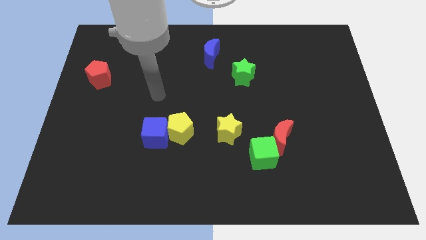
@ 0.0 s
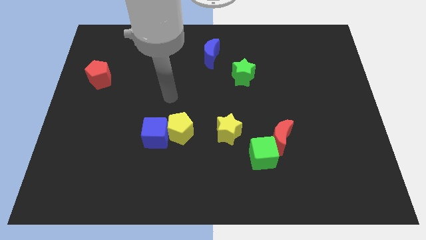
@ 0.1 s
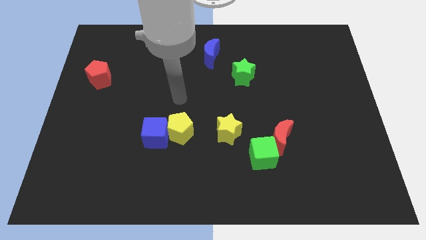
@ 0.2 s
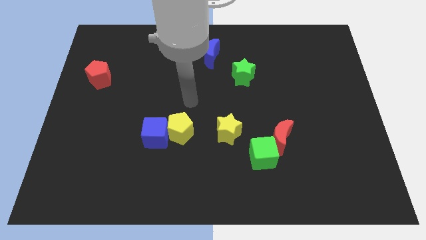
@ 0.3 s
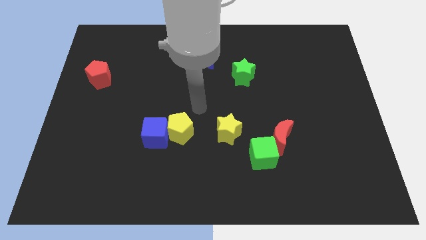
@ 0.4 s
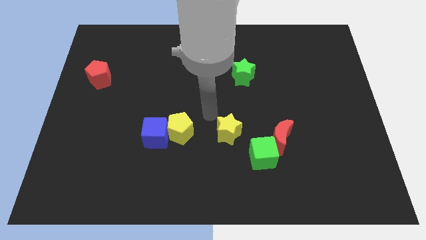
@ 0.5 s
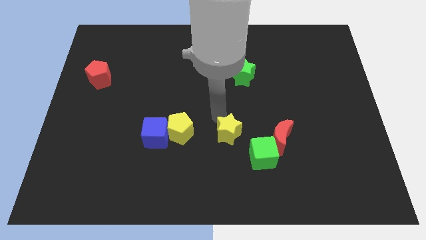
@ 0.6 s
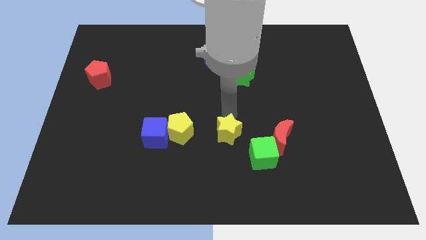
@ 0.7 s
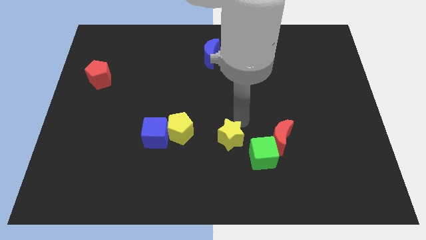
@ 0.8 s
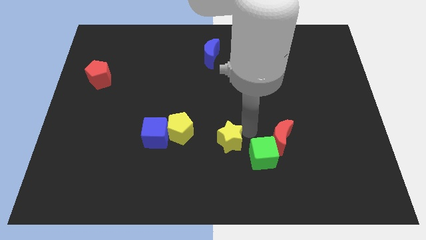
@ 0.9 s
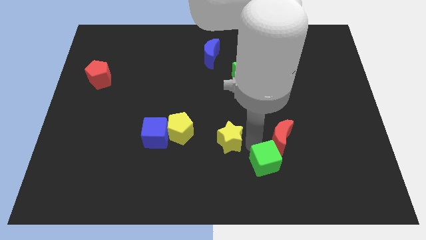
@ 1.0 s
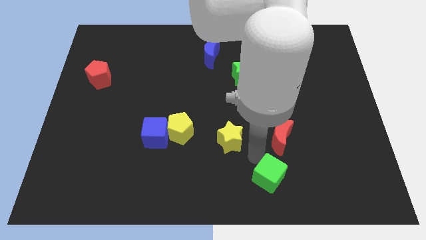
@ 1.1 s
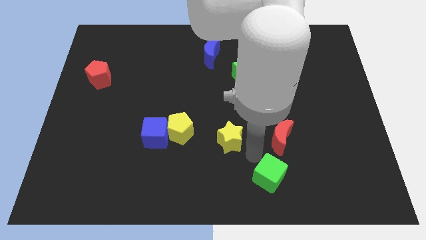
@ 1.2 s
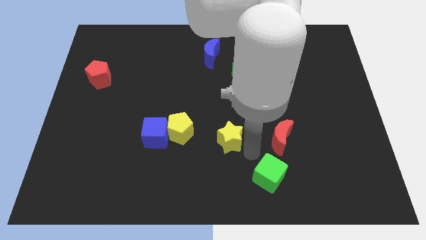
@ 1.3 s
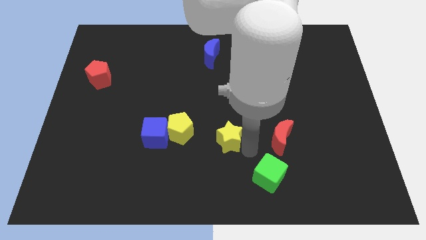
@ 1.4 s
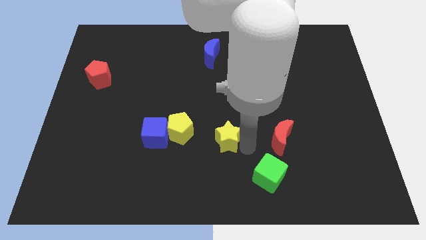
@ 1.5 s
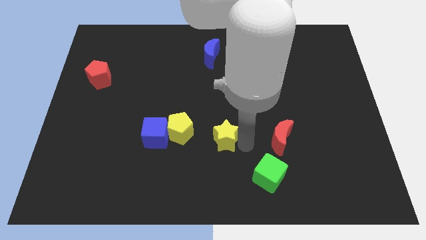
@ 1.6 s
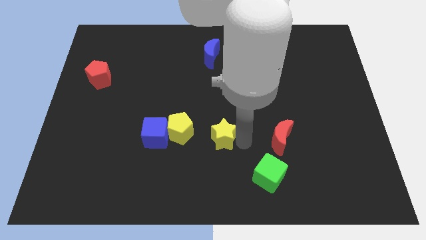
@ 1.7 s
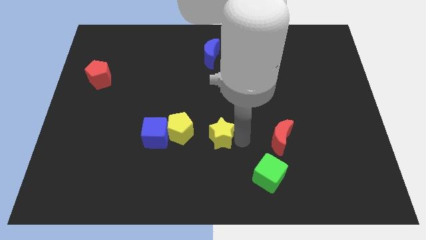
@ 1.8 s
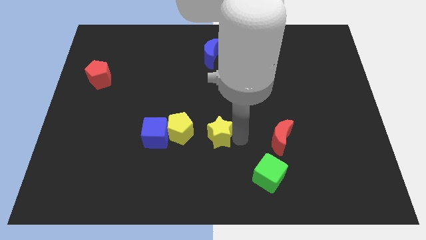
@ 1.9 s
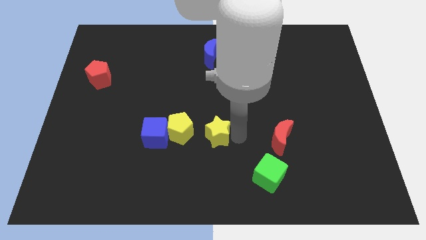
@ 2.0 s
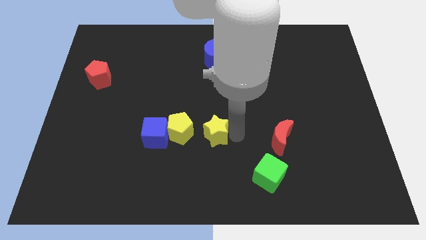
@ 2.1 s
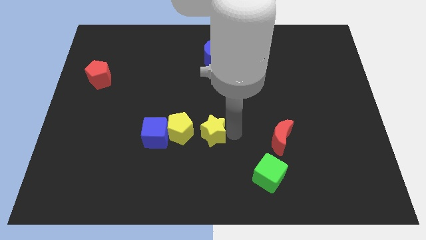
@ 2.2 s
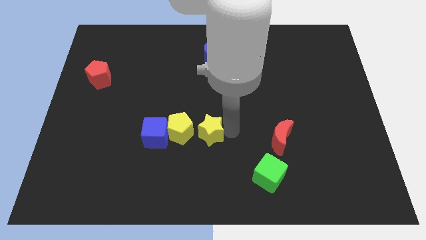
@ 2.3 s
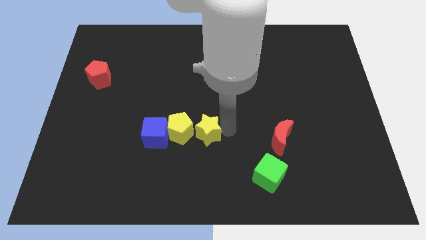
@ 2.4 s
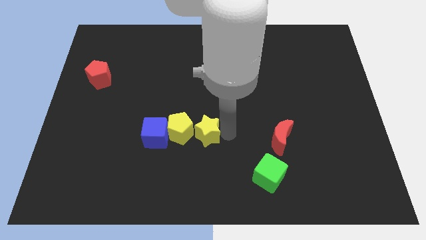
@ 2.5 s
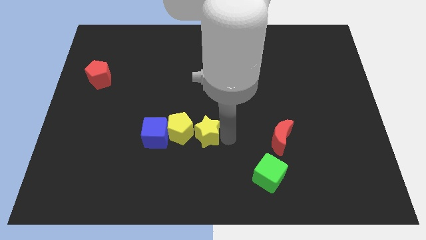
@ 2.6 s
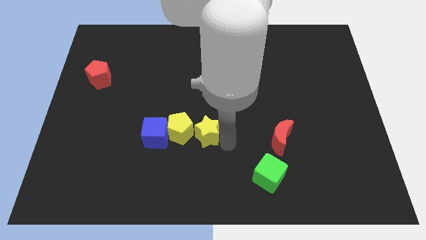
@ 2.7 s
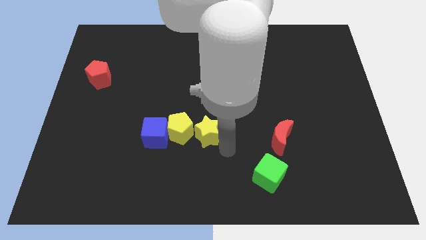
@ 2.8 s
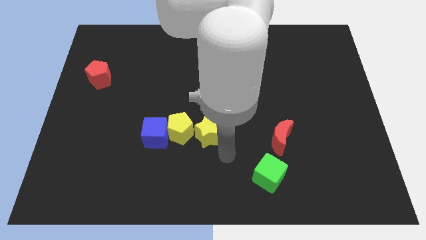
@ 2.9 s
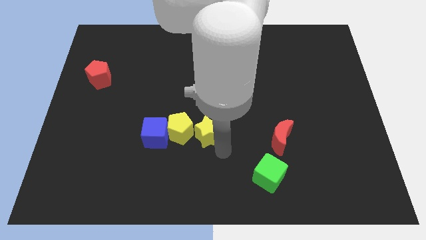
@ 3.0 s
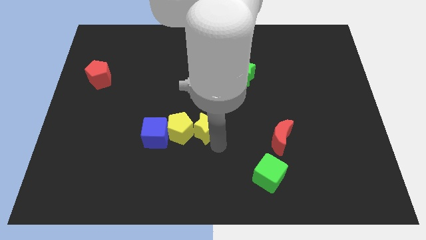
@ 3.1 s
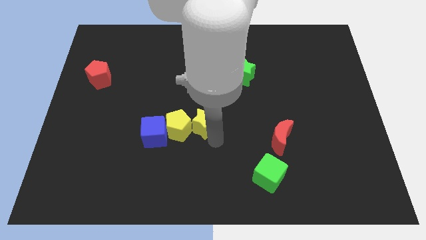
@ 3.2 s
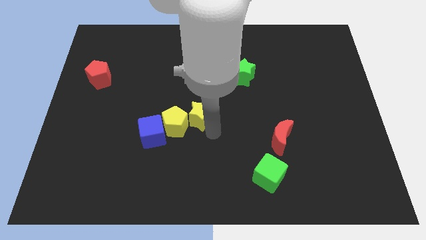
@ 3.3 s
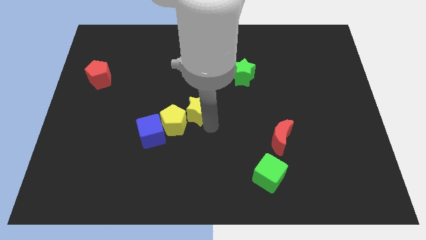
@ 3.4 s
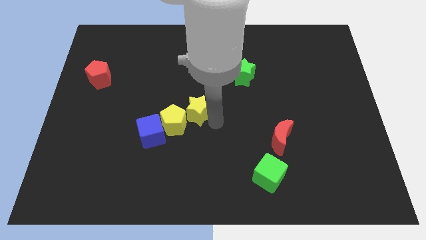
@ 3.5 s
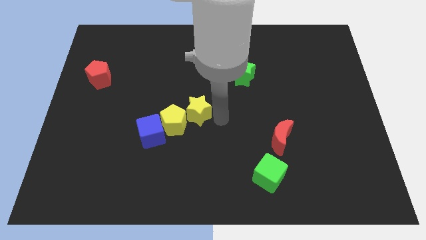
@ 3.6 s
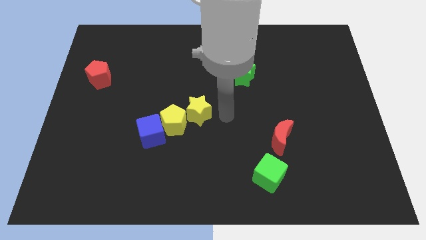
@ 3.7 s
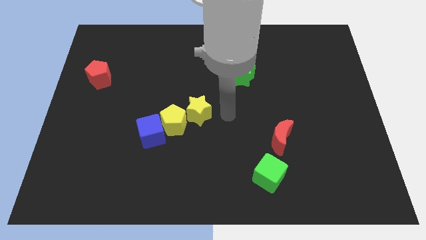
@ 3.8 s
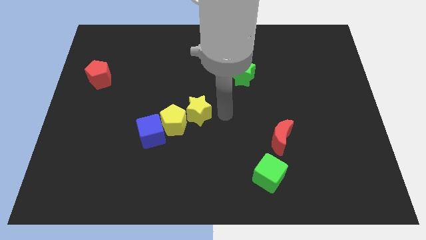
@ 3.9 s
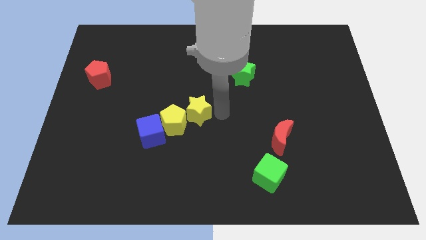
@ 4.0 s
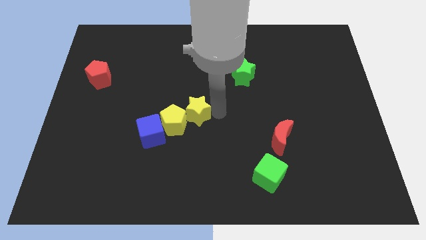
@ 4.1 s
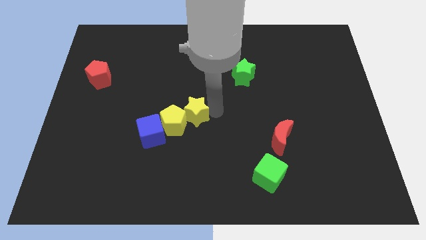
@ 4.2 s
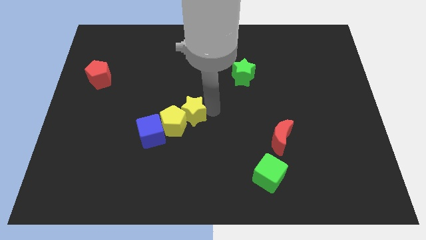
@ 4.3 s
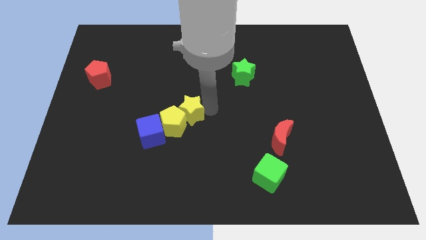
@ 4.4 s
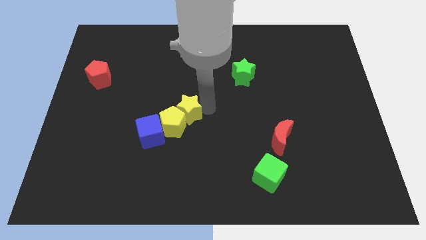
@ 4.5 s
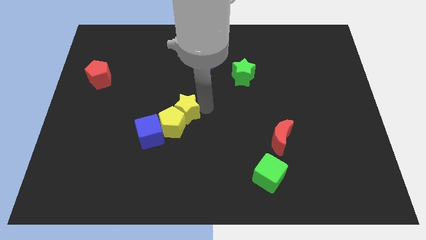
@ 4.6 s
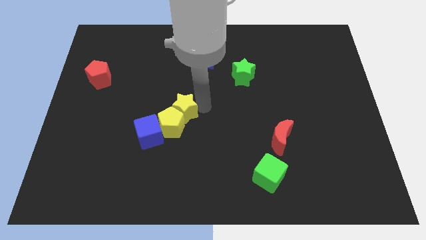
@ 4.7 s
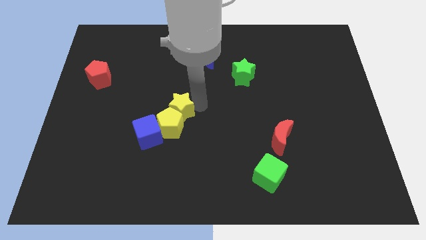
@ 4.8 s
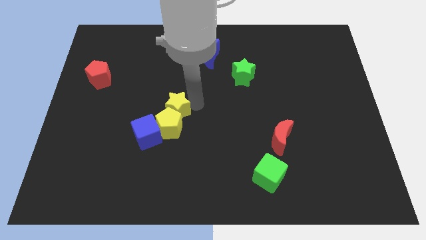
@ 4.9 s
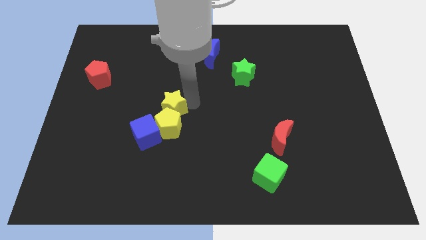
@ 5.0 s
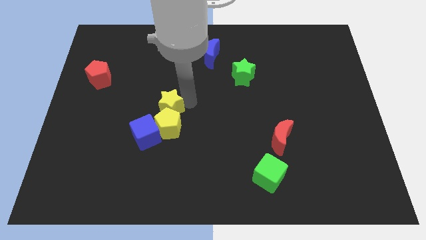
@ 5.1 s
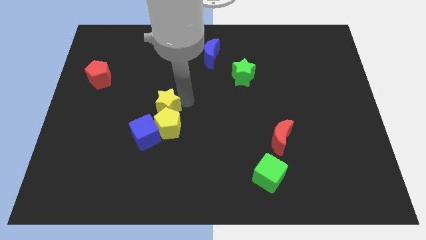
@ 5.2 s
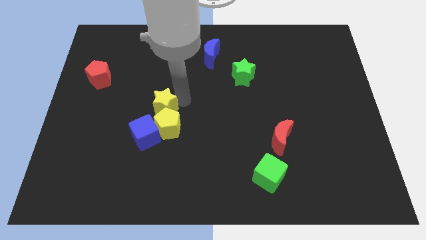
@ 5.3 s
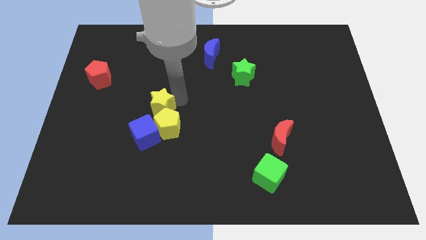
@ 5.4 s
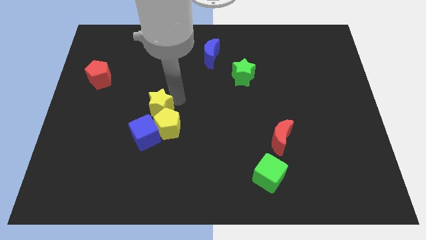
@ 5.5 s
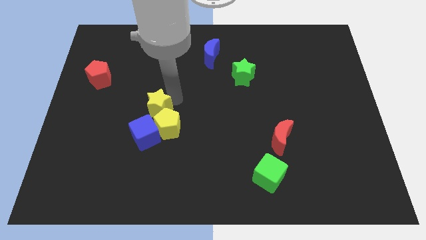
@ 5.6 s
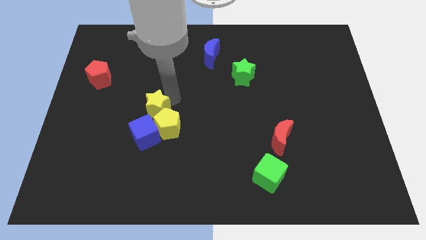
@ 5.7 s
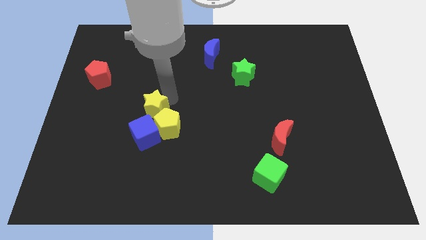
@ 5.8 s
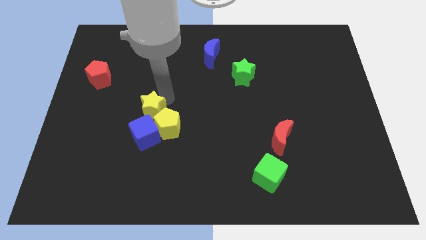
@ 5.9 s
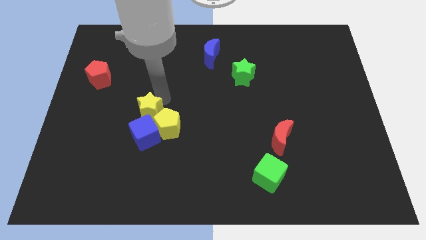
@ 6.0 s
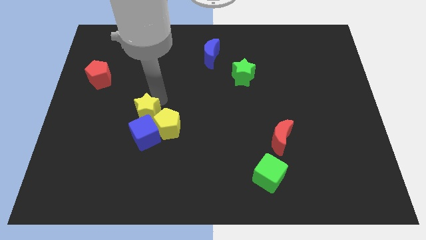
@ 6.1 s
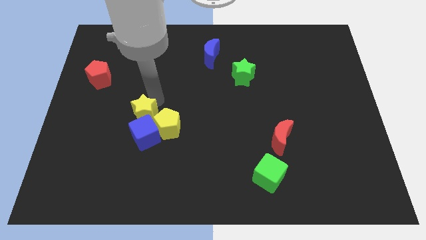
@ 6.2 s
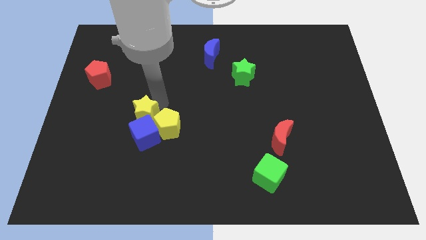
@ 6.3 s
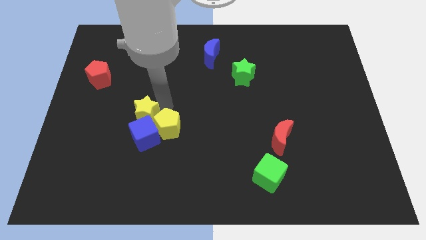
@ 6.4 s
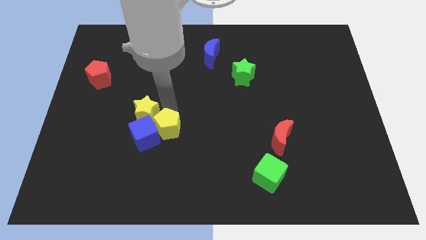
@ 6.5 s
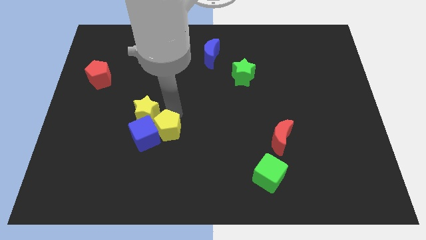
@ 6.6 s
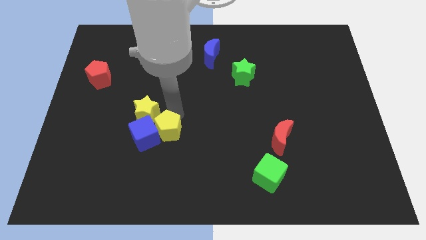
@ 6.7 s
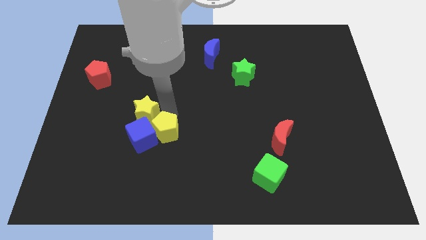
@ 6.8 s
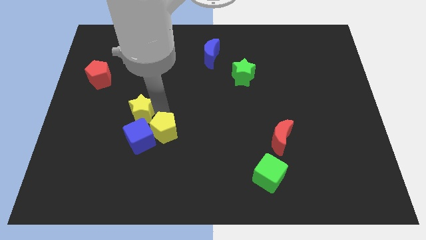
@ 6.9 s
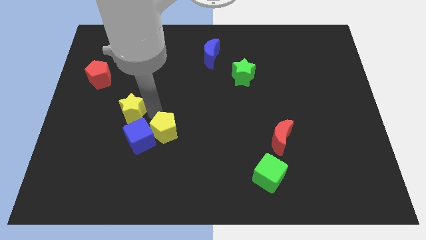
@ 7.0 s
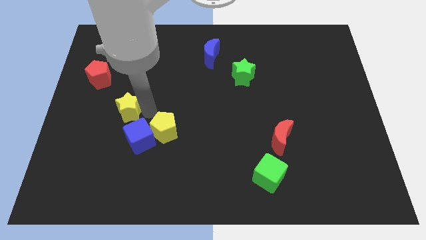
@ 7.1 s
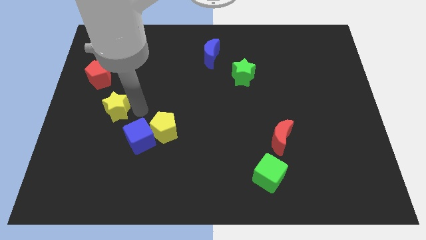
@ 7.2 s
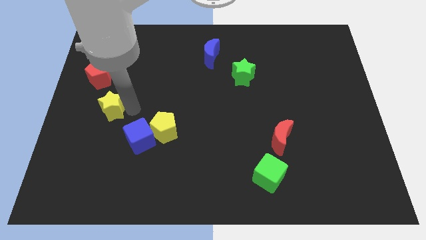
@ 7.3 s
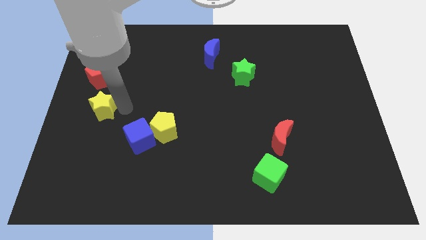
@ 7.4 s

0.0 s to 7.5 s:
put the yellow star to the bottom of the red pentagon
